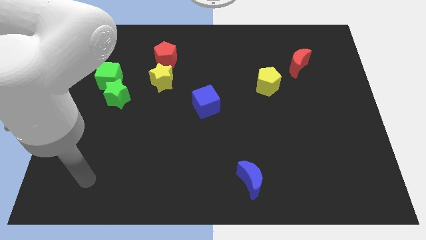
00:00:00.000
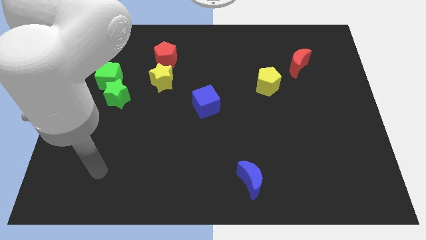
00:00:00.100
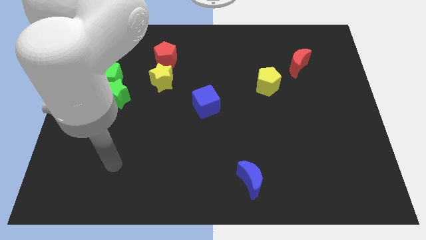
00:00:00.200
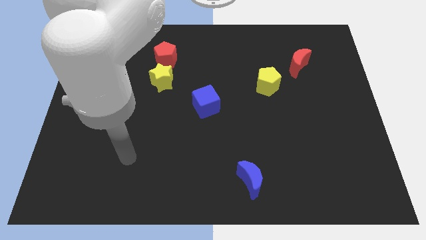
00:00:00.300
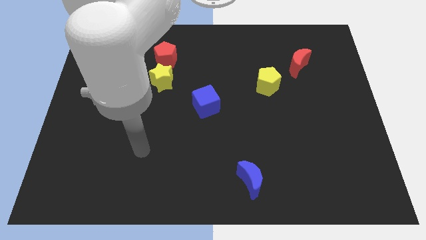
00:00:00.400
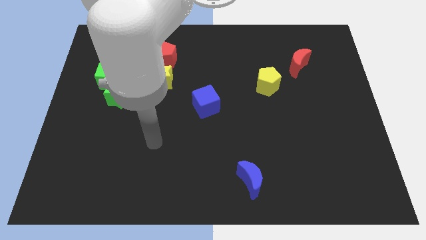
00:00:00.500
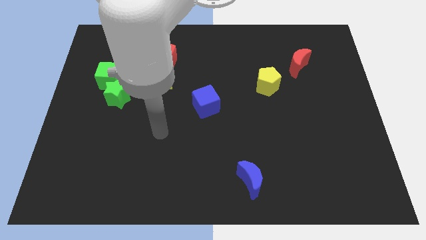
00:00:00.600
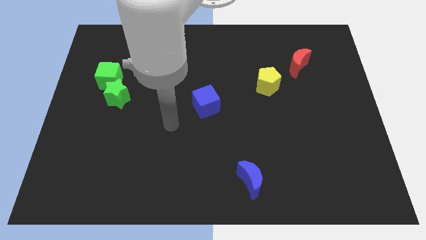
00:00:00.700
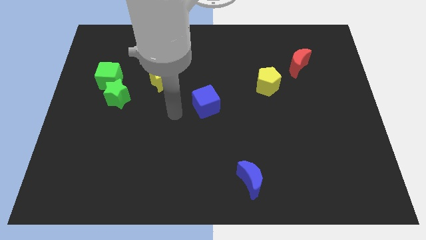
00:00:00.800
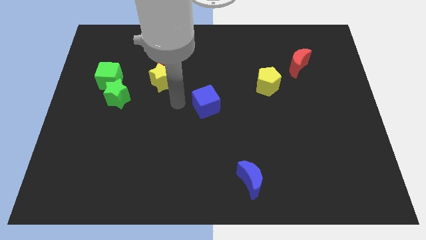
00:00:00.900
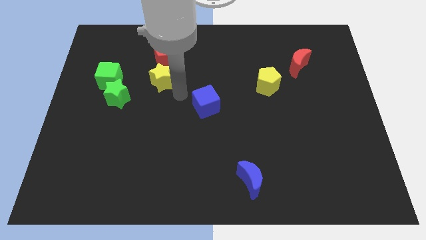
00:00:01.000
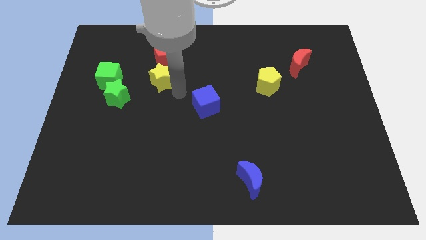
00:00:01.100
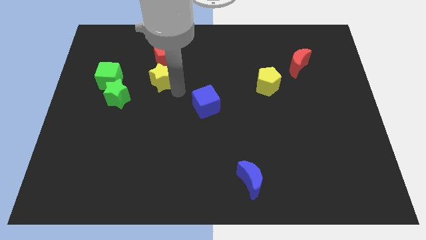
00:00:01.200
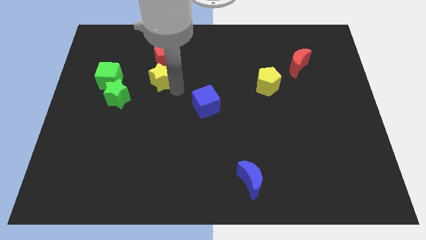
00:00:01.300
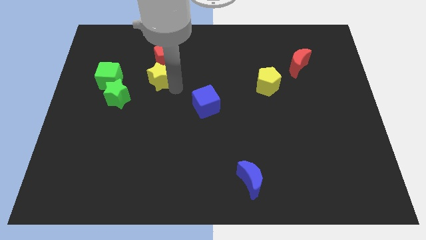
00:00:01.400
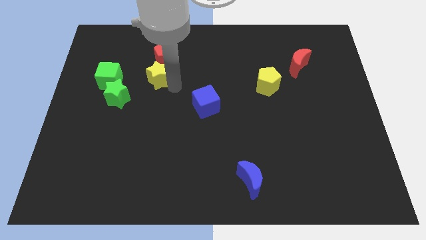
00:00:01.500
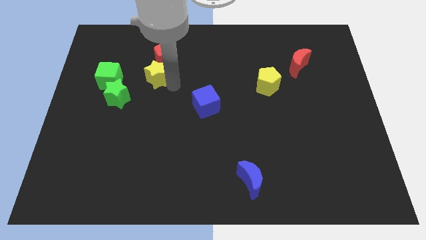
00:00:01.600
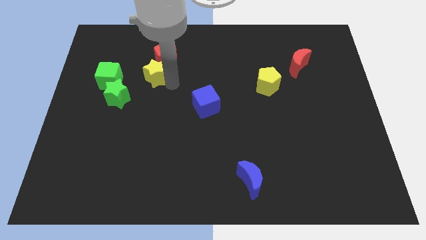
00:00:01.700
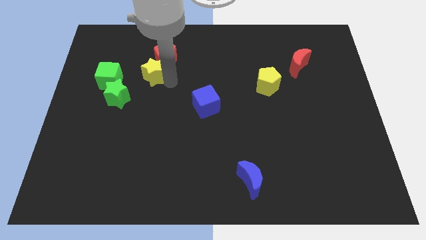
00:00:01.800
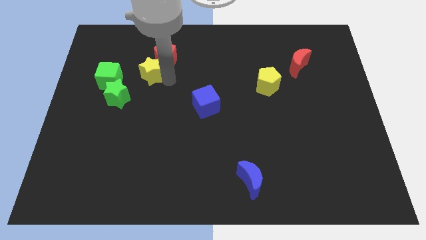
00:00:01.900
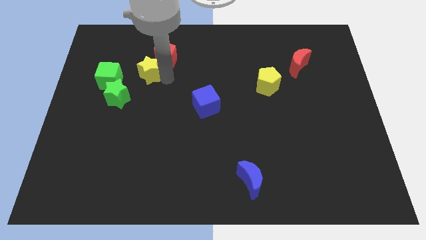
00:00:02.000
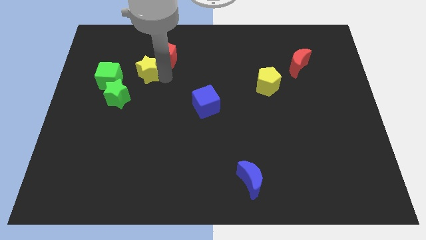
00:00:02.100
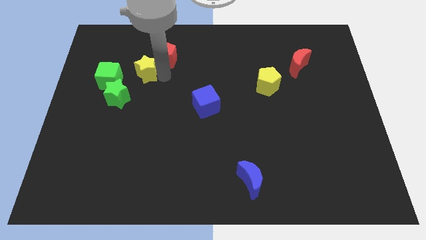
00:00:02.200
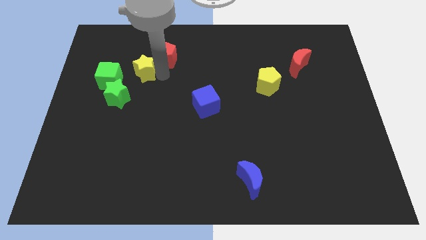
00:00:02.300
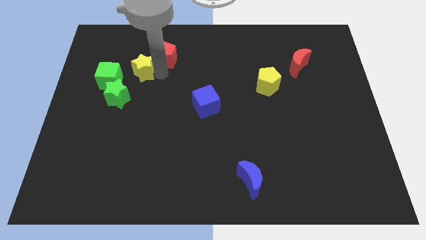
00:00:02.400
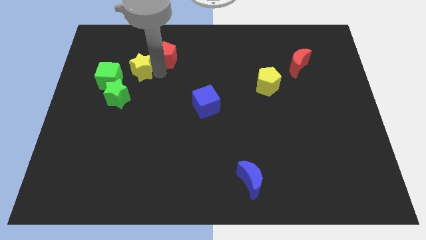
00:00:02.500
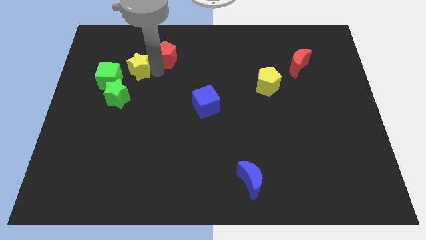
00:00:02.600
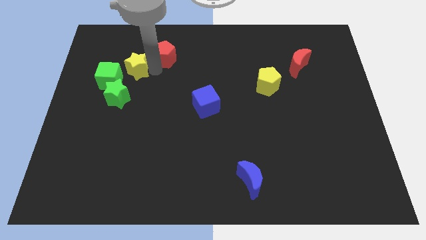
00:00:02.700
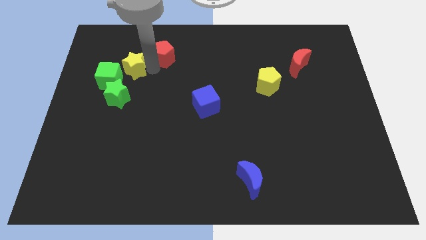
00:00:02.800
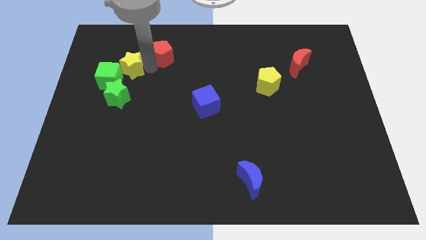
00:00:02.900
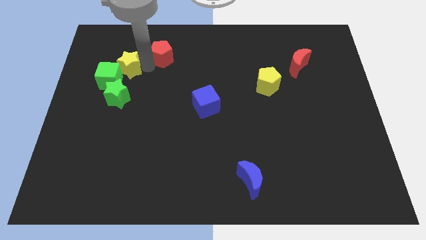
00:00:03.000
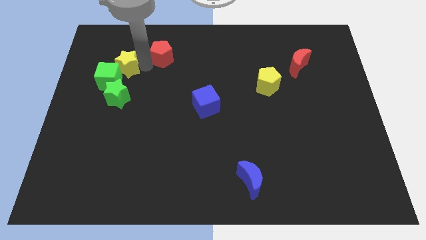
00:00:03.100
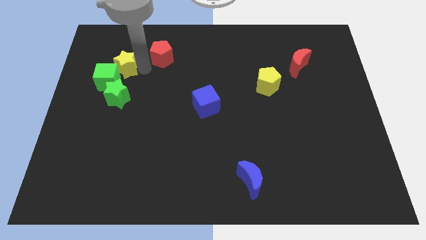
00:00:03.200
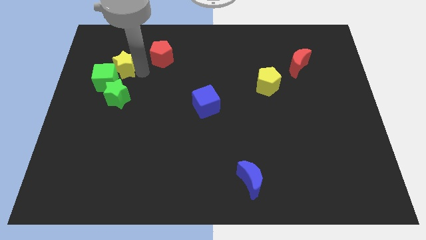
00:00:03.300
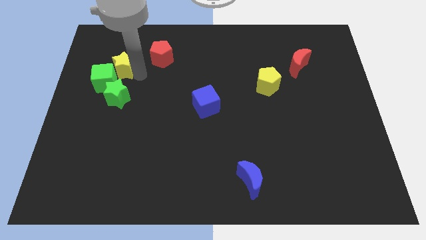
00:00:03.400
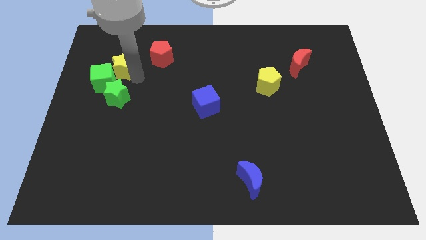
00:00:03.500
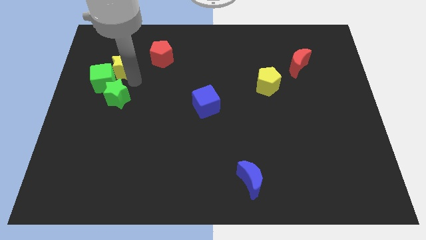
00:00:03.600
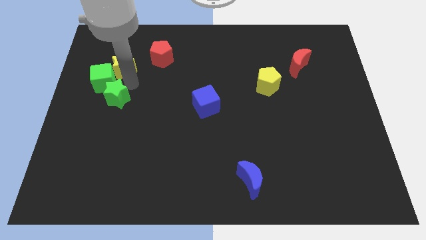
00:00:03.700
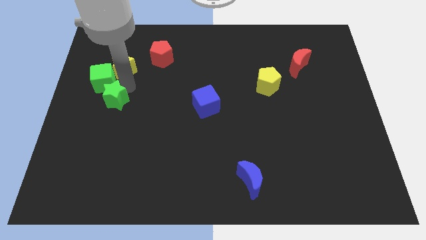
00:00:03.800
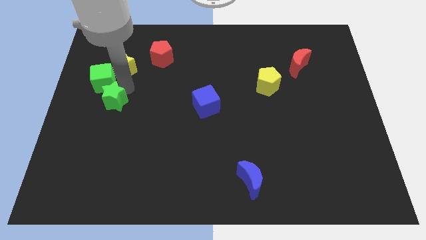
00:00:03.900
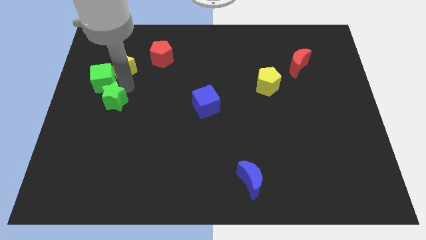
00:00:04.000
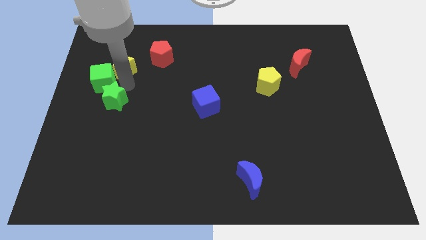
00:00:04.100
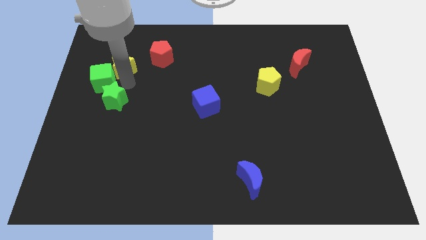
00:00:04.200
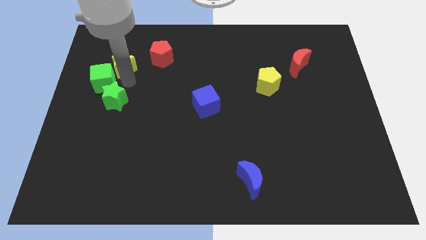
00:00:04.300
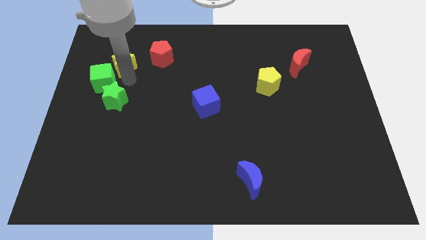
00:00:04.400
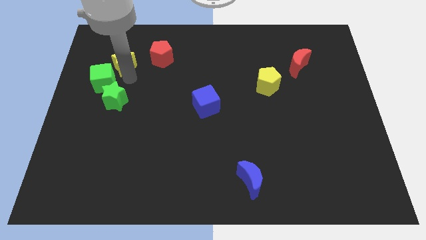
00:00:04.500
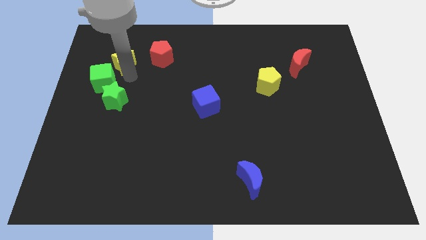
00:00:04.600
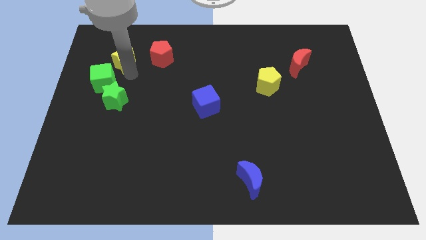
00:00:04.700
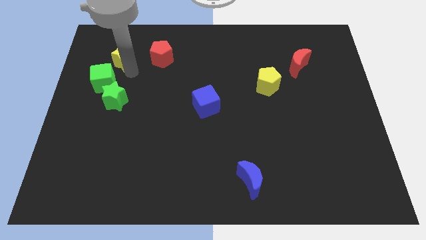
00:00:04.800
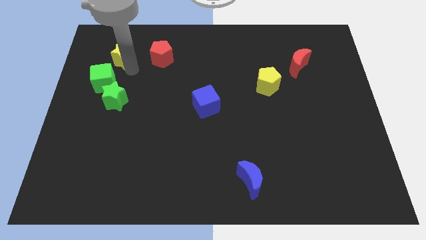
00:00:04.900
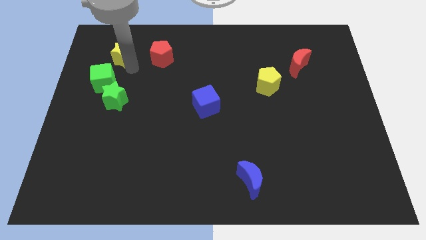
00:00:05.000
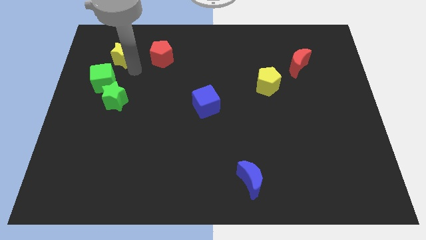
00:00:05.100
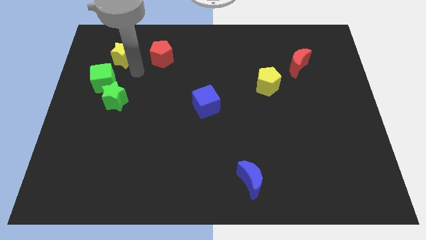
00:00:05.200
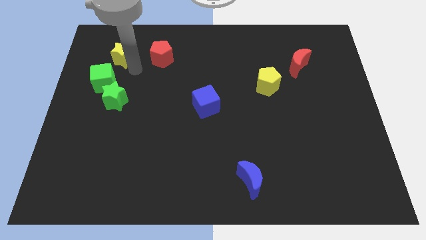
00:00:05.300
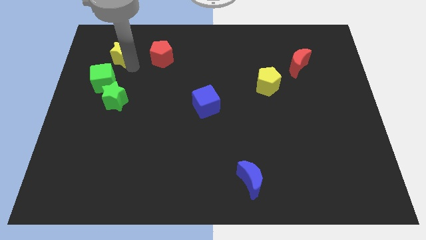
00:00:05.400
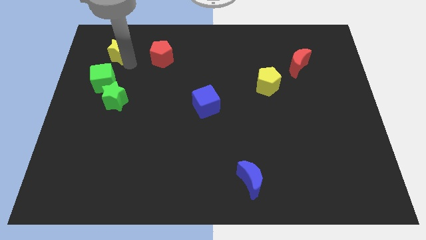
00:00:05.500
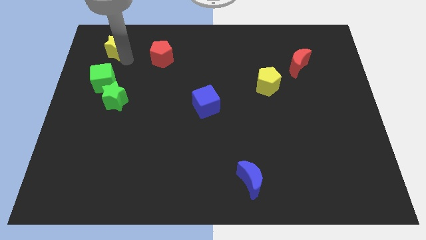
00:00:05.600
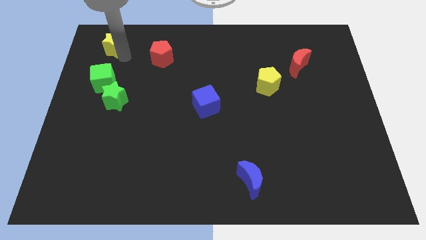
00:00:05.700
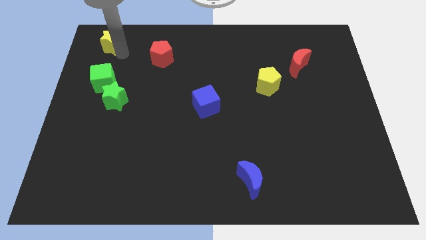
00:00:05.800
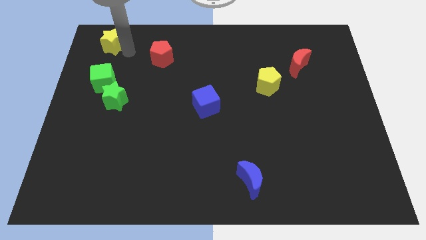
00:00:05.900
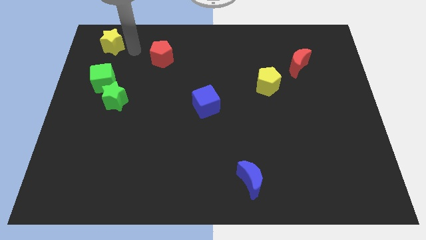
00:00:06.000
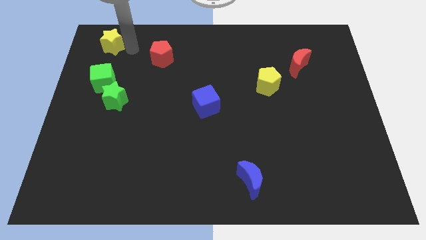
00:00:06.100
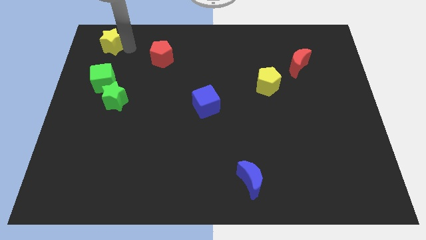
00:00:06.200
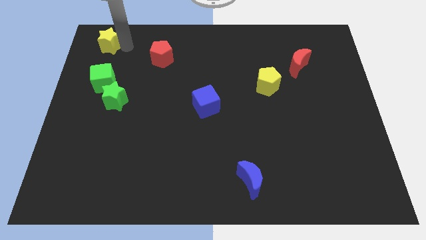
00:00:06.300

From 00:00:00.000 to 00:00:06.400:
put the yellow star to the upper left corner

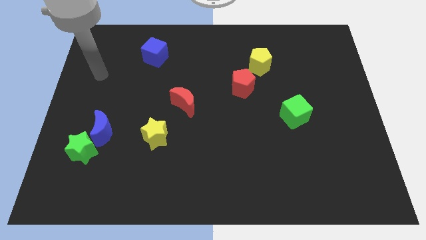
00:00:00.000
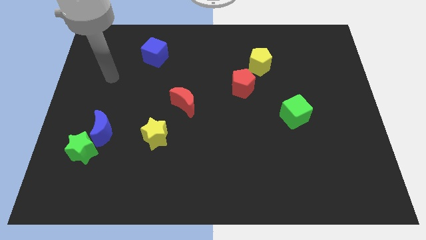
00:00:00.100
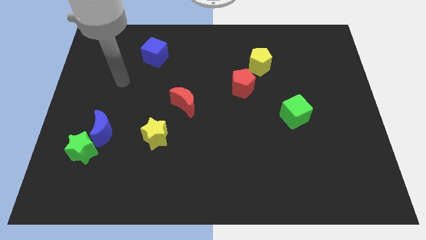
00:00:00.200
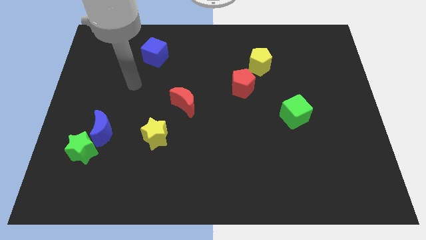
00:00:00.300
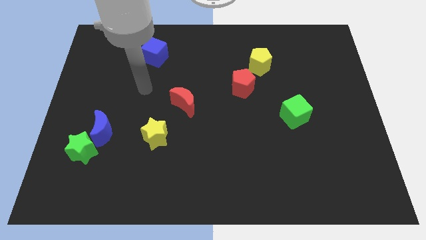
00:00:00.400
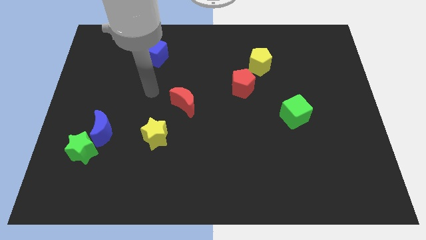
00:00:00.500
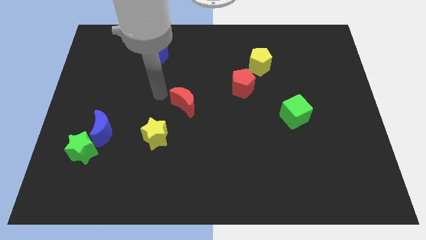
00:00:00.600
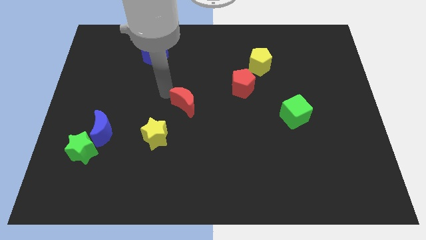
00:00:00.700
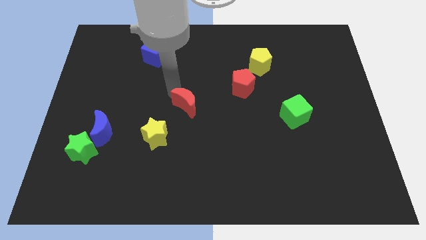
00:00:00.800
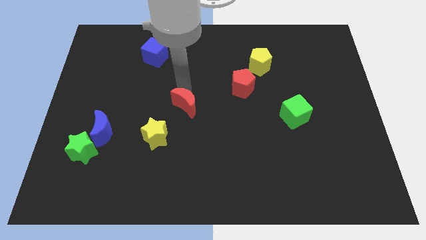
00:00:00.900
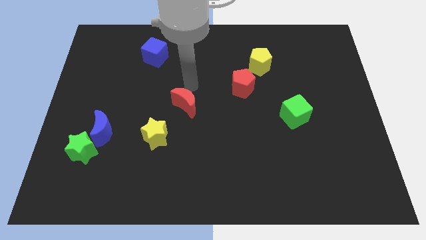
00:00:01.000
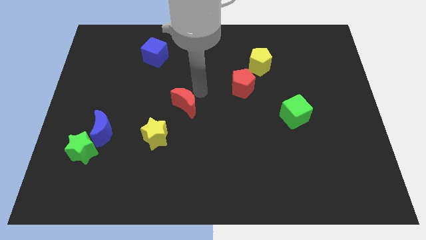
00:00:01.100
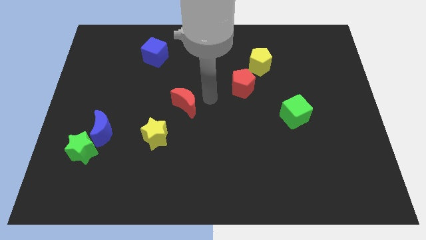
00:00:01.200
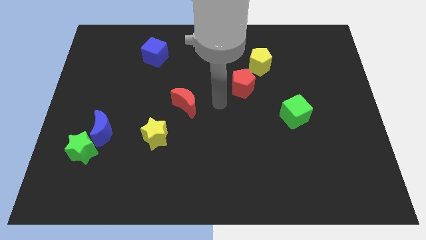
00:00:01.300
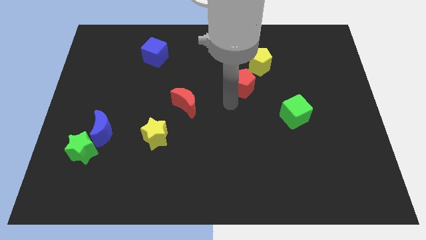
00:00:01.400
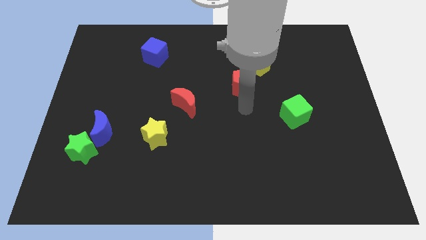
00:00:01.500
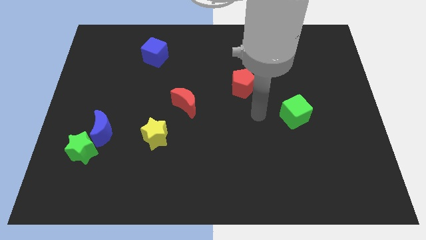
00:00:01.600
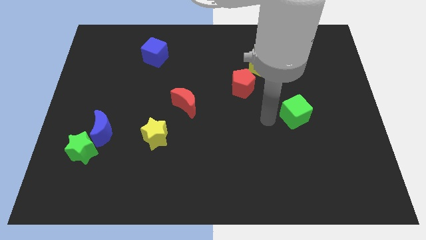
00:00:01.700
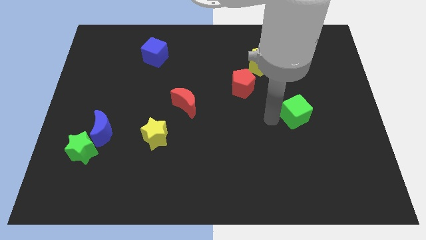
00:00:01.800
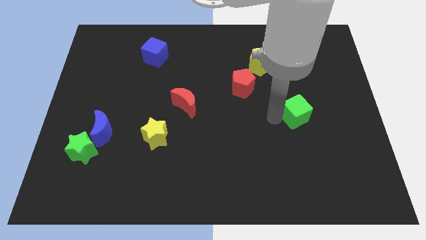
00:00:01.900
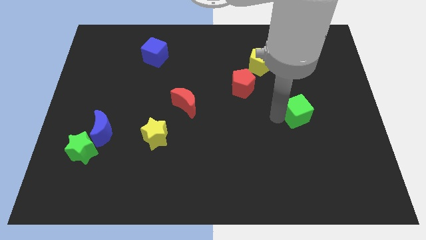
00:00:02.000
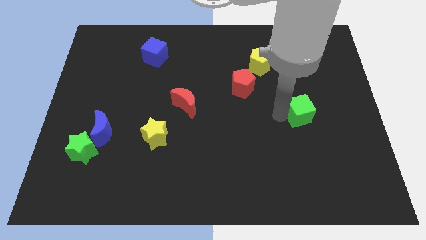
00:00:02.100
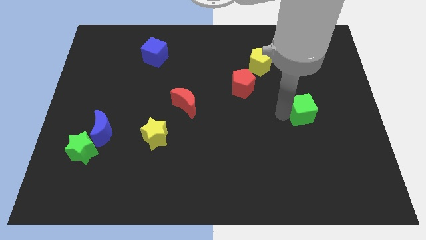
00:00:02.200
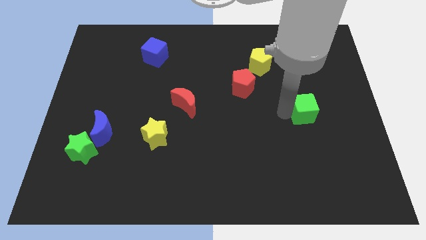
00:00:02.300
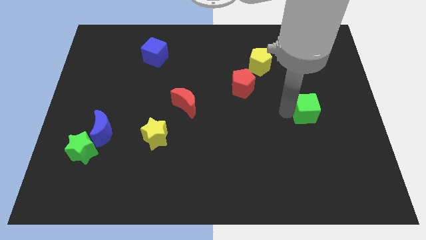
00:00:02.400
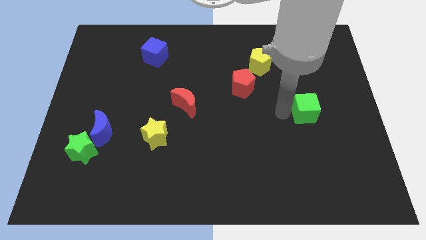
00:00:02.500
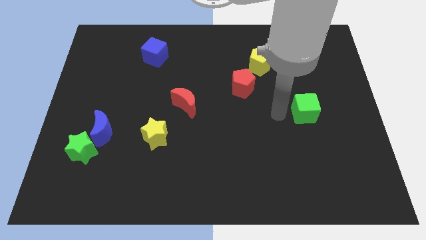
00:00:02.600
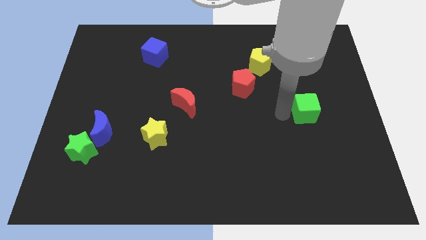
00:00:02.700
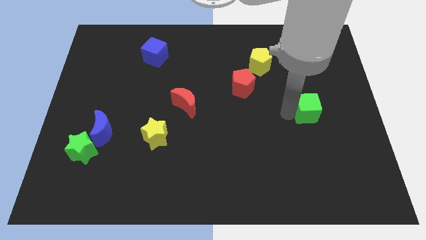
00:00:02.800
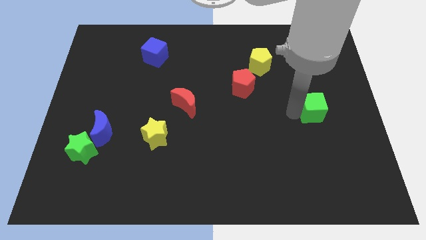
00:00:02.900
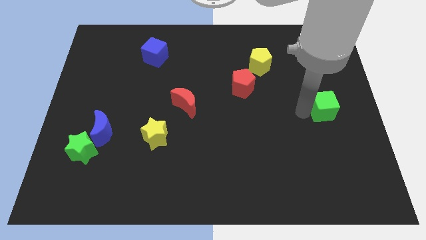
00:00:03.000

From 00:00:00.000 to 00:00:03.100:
move the green cube to the right side
